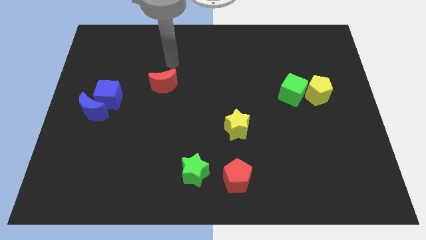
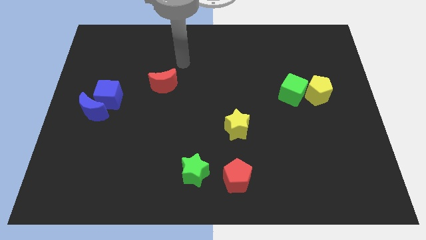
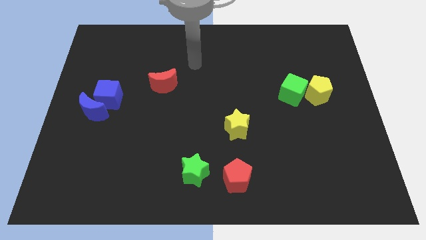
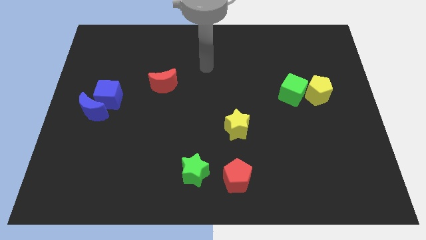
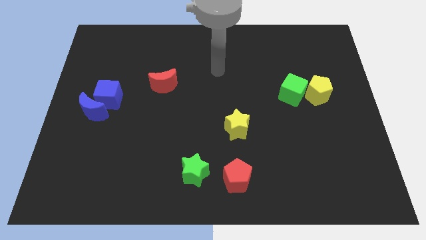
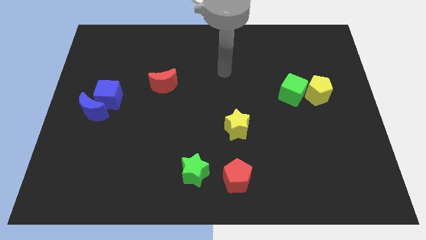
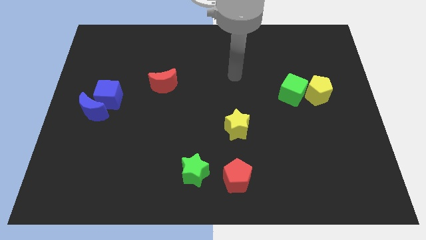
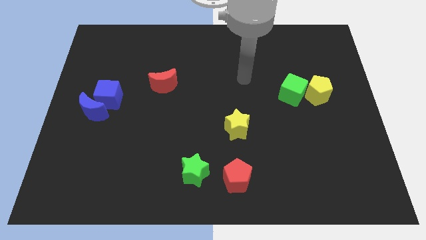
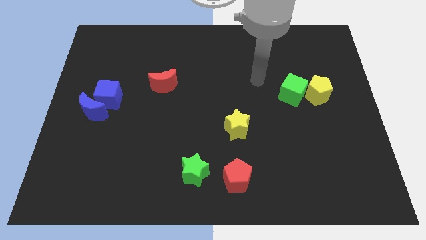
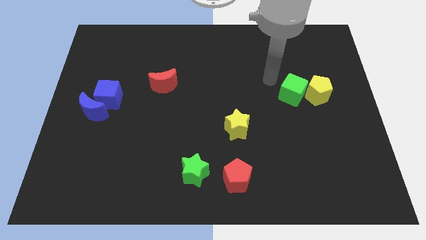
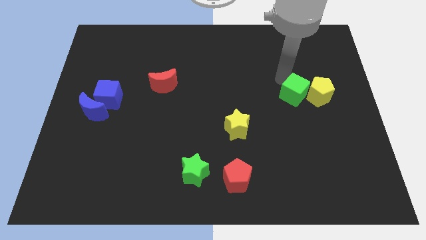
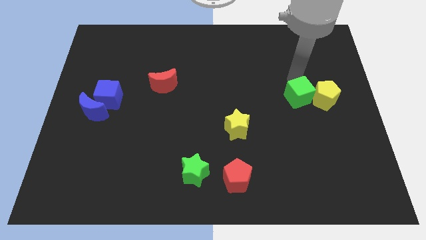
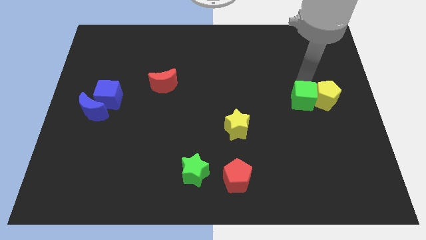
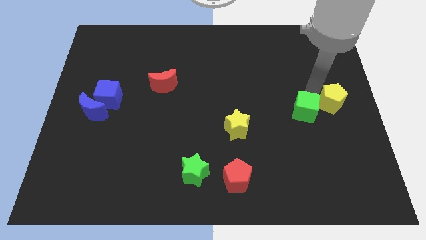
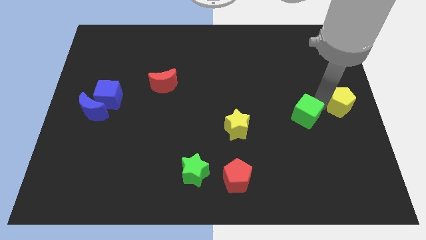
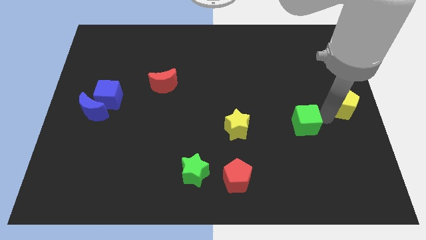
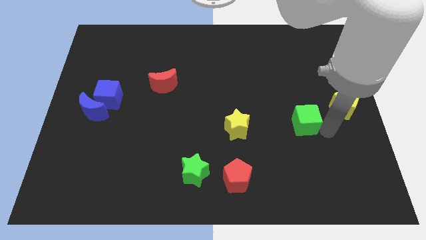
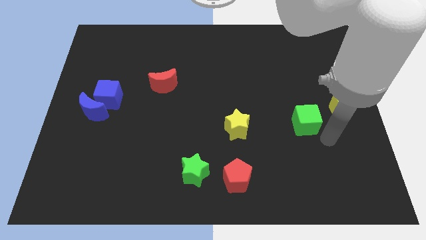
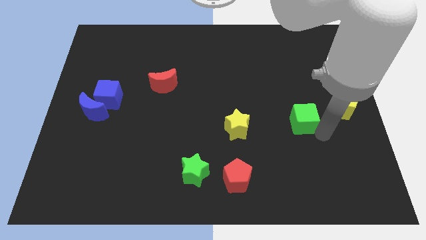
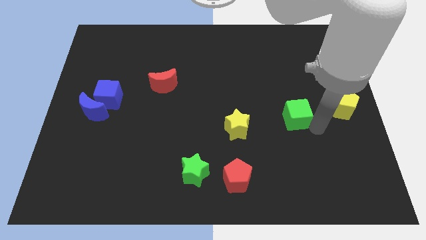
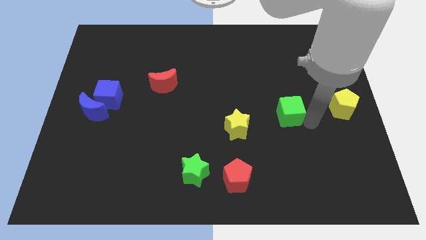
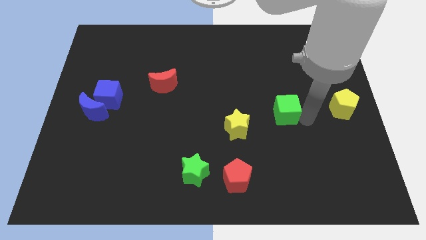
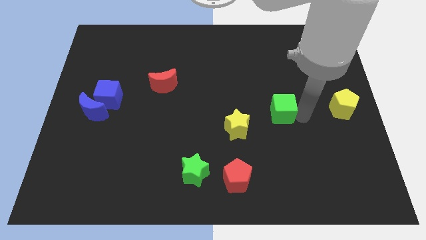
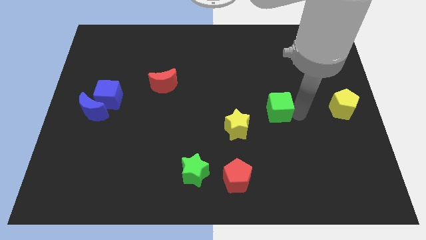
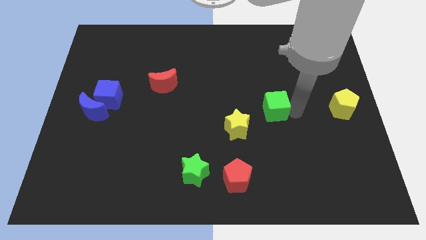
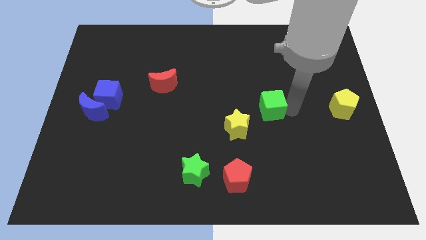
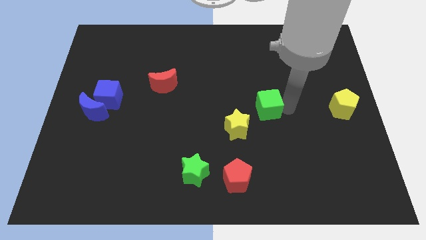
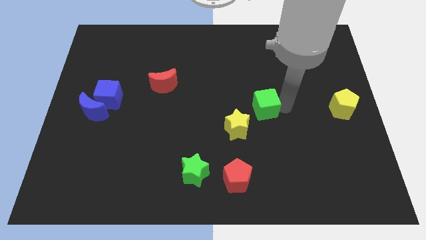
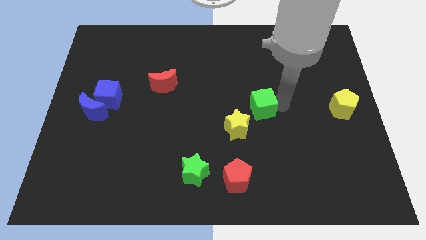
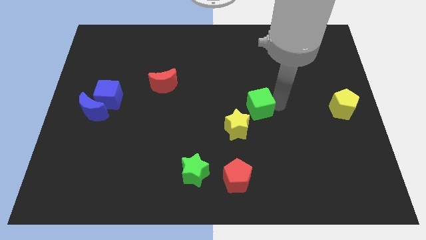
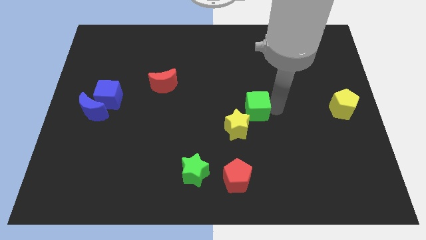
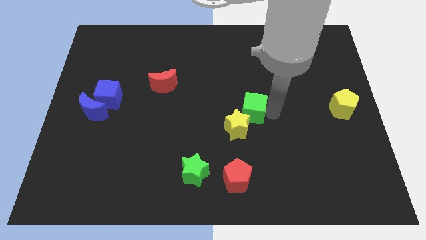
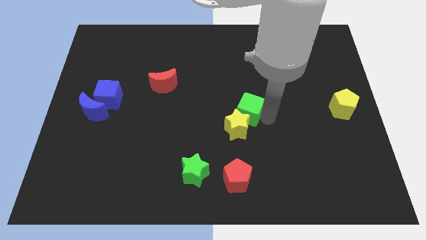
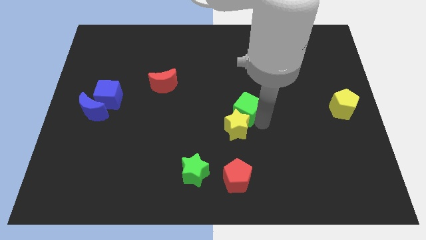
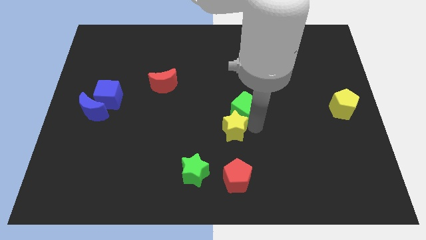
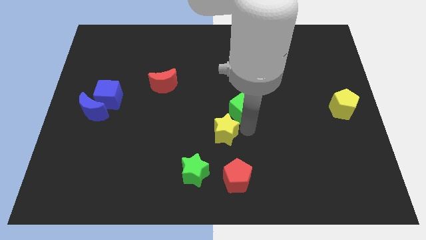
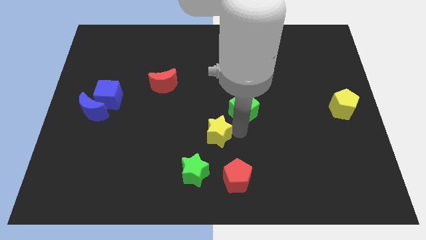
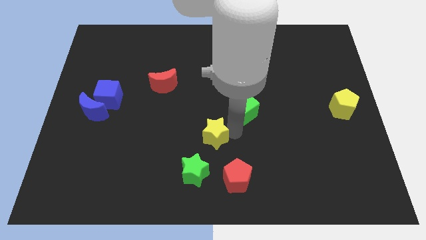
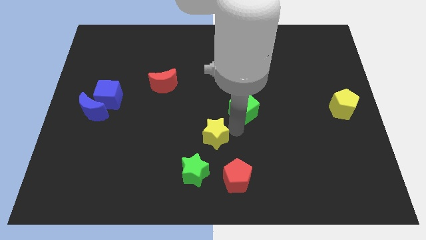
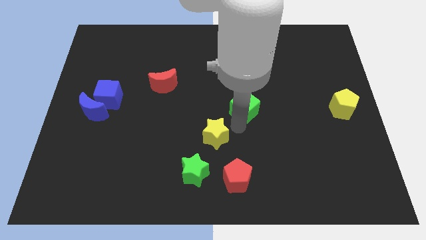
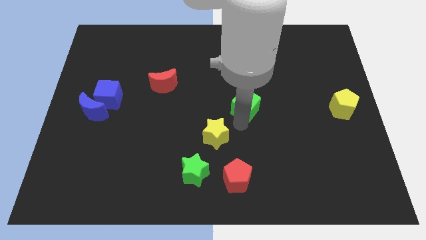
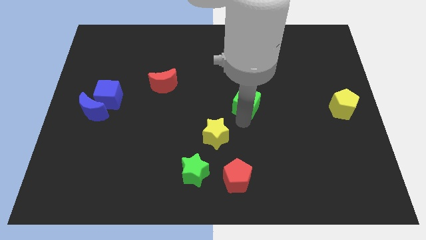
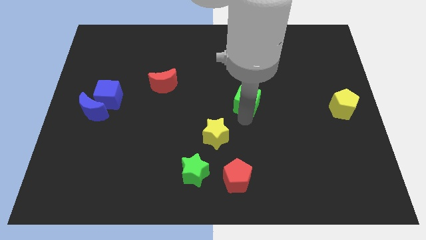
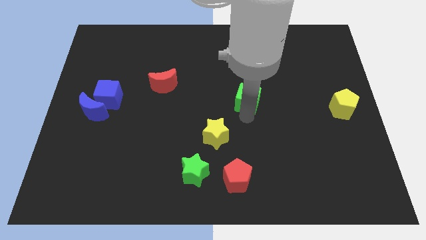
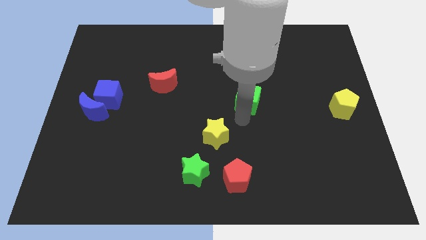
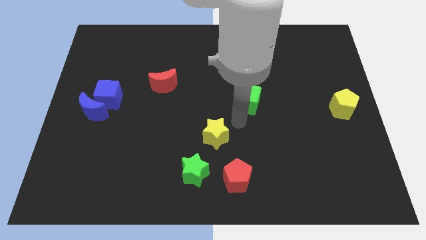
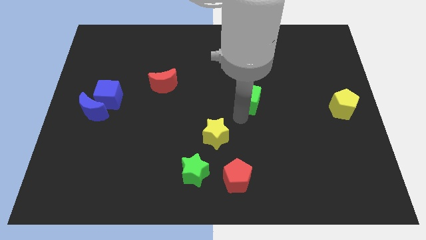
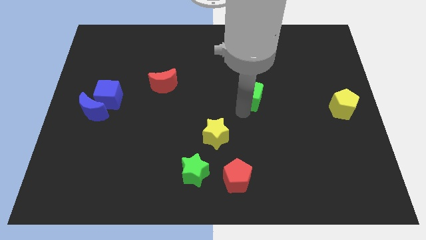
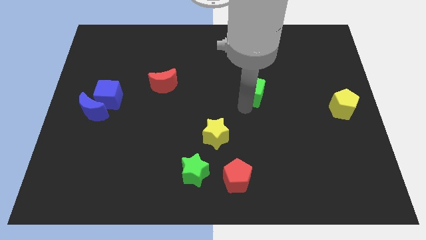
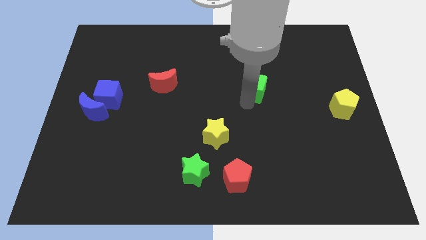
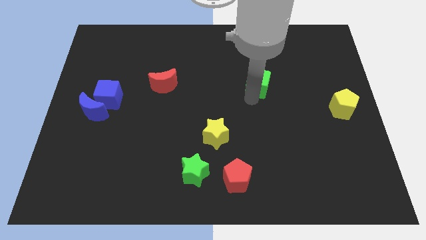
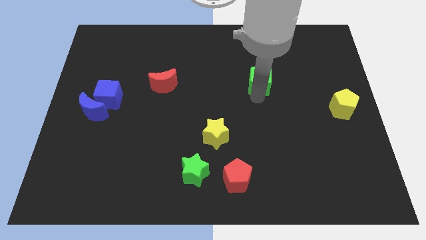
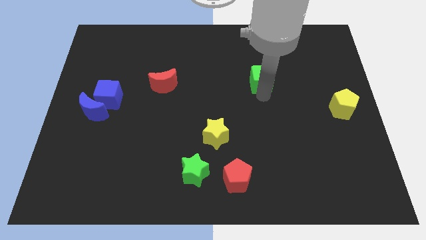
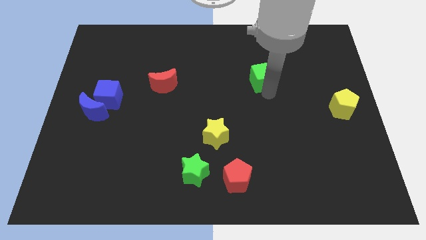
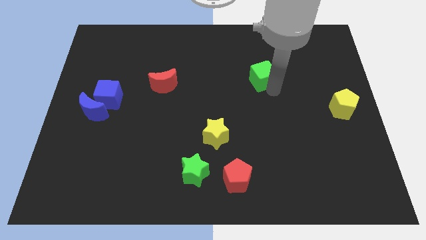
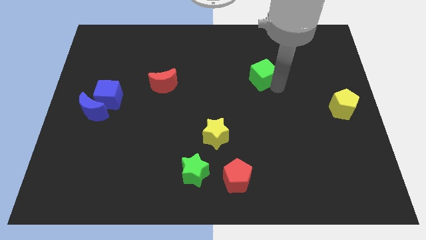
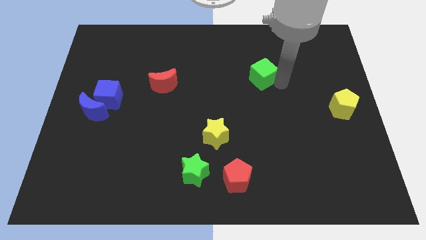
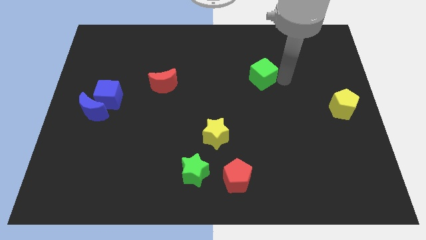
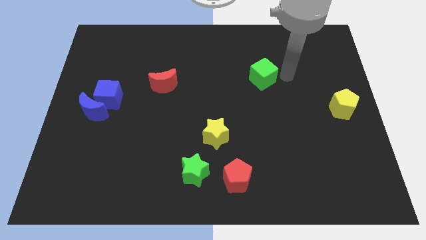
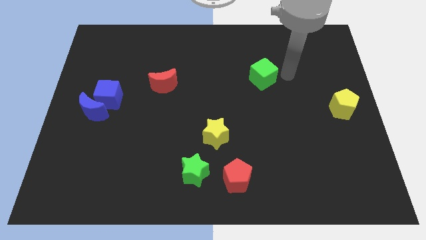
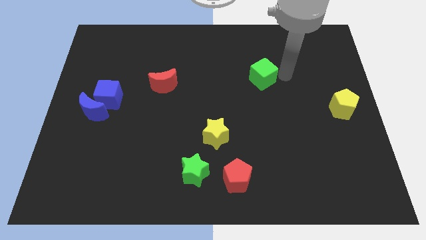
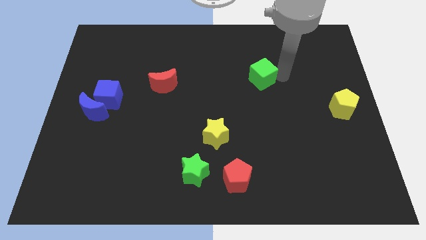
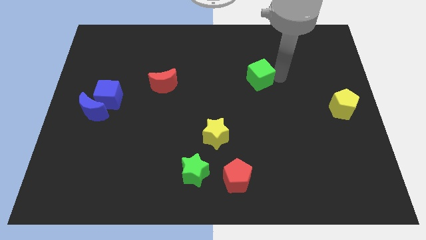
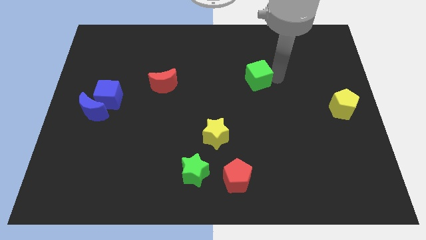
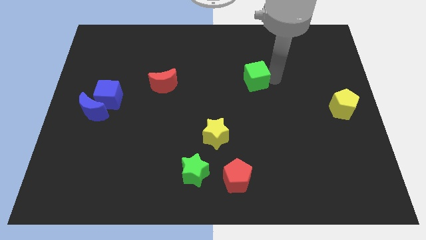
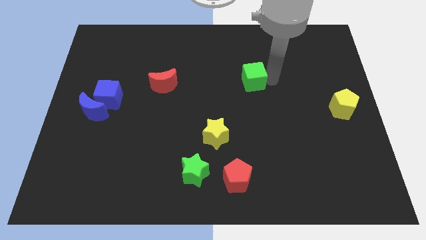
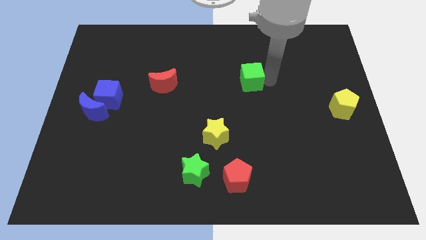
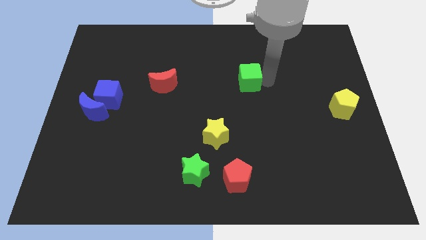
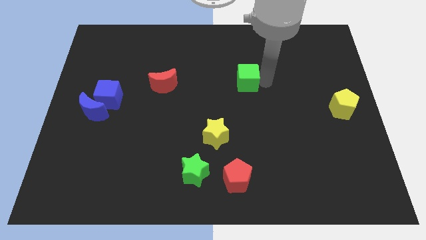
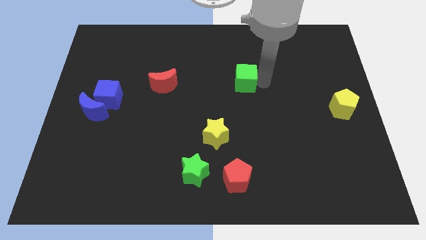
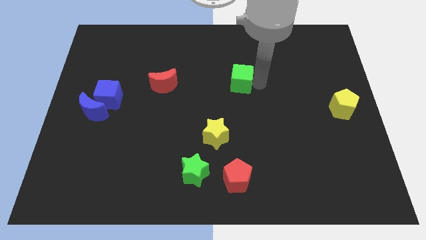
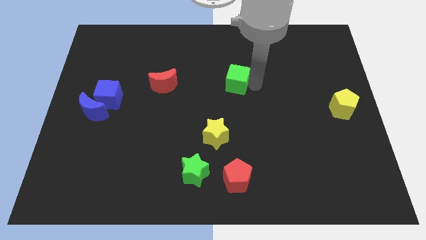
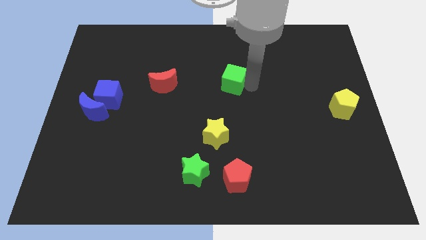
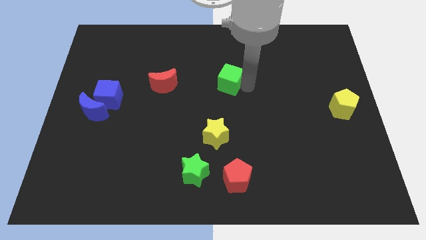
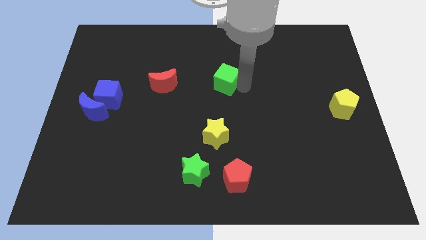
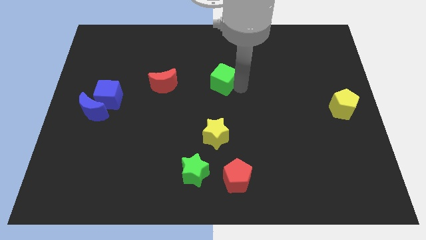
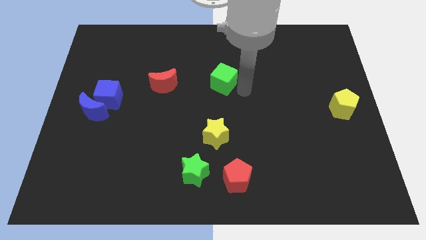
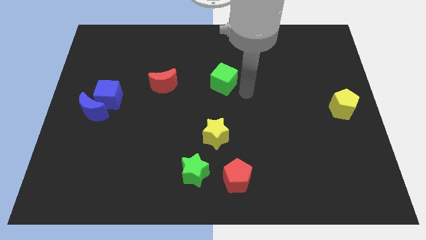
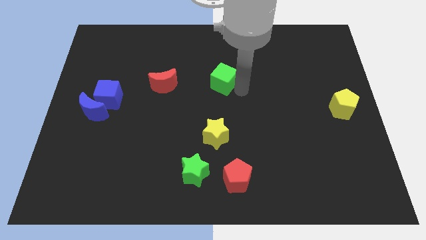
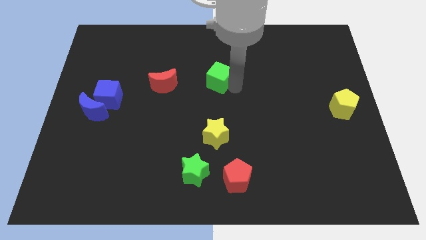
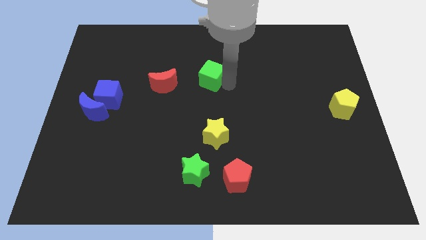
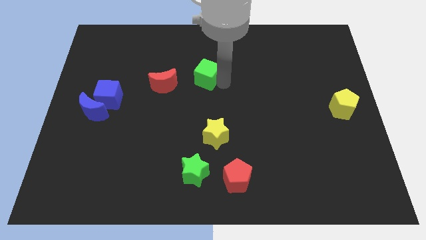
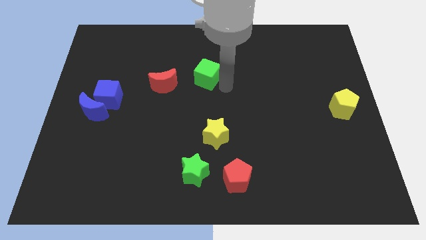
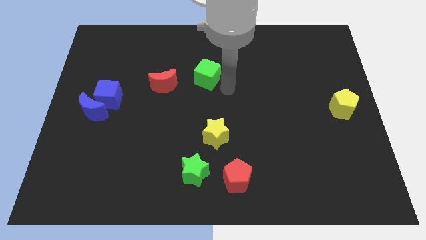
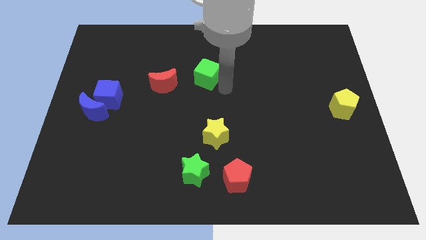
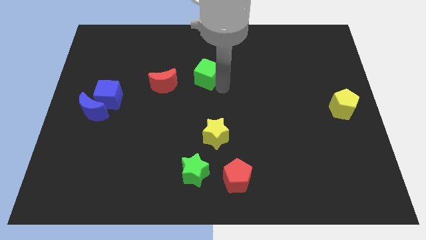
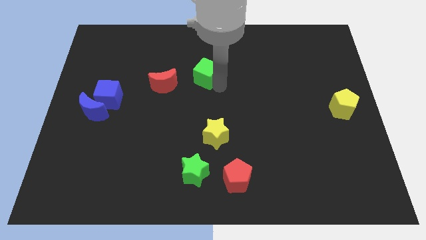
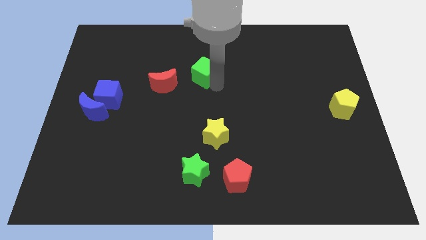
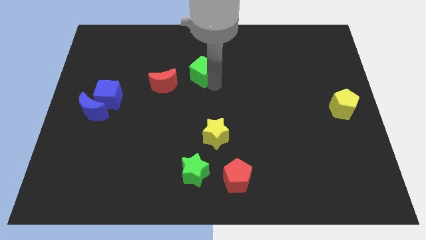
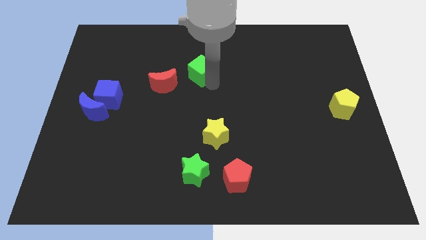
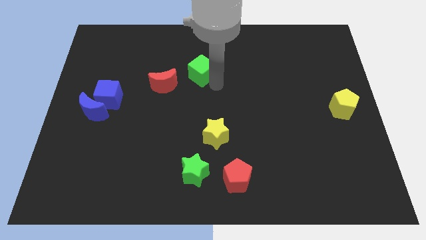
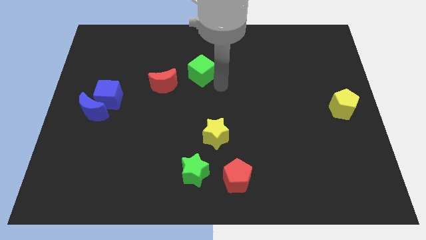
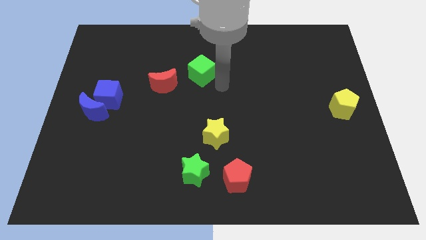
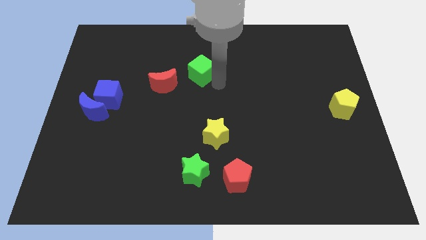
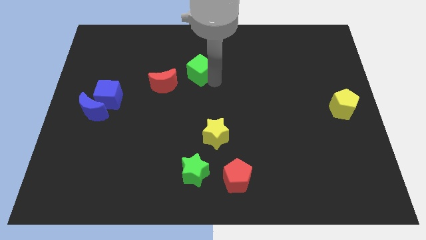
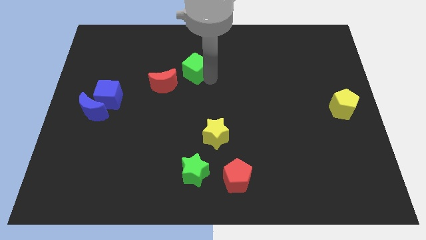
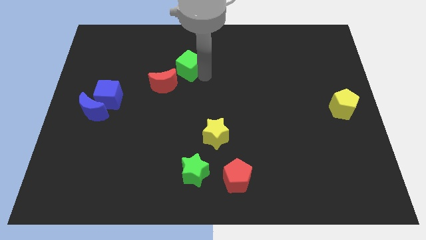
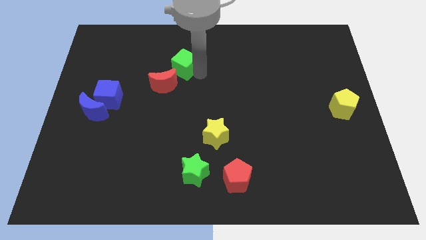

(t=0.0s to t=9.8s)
slide the green cube above the red moon
